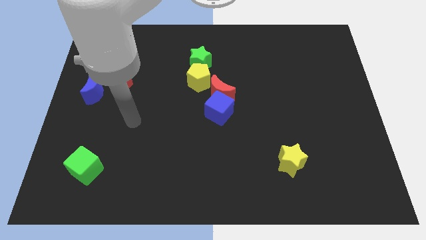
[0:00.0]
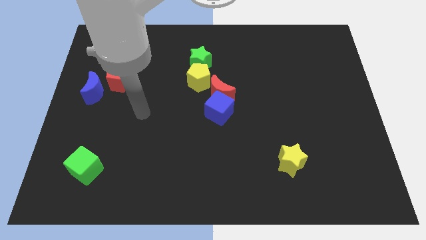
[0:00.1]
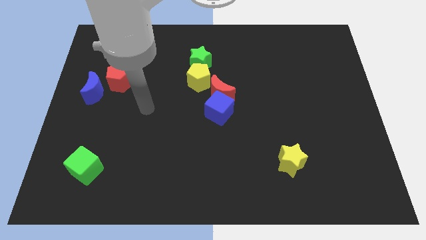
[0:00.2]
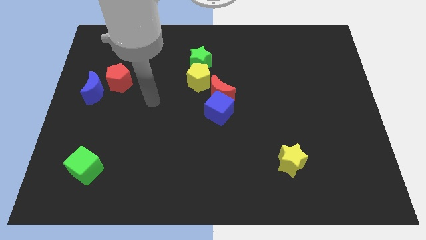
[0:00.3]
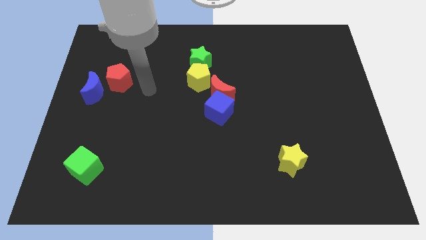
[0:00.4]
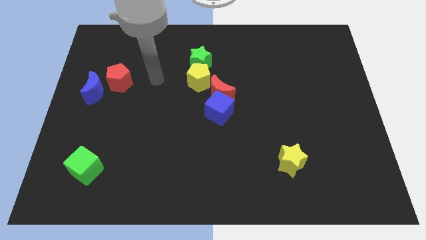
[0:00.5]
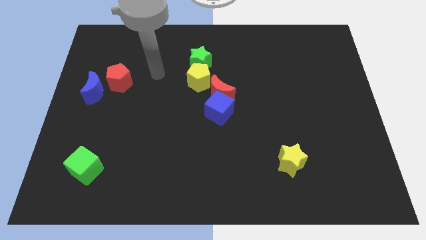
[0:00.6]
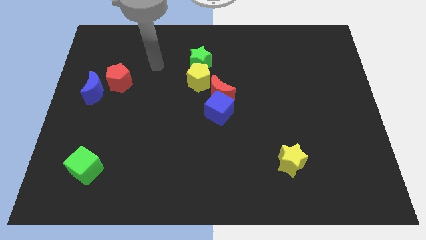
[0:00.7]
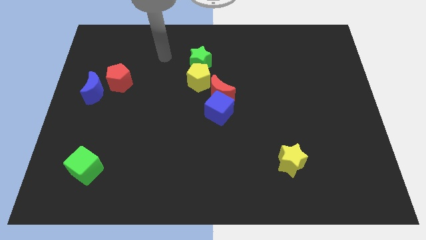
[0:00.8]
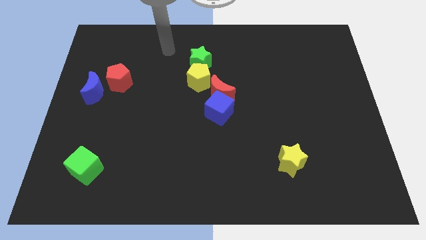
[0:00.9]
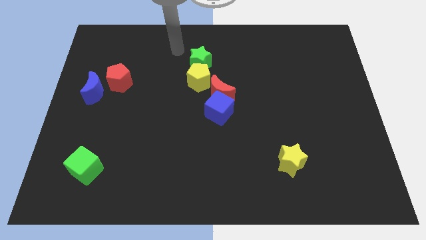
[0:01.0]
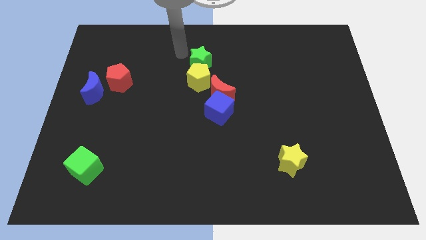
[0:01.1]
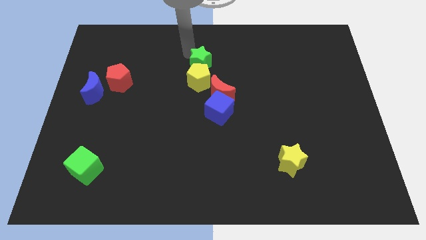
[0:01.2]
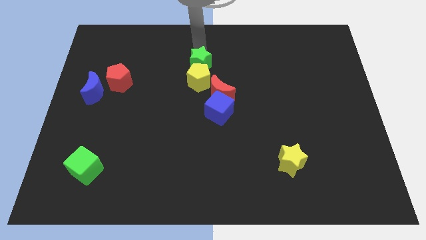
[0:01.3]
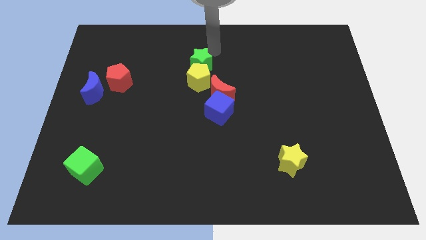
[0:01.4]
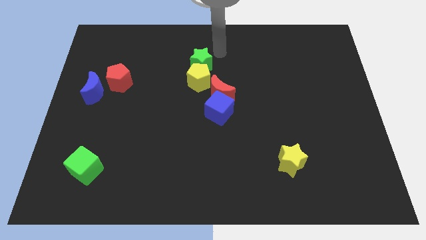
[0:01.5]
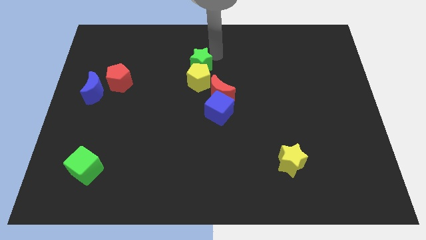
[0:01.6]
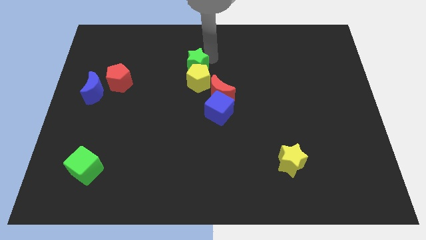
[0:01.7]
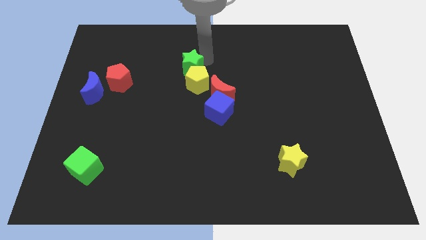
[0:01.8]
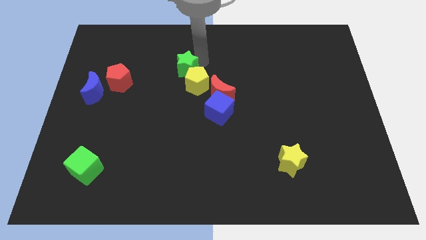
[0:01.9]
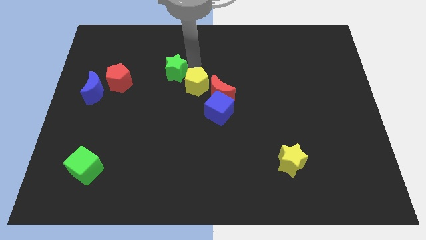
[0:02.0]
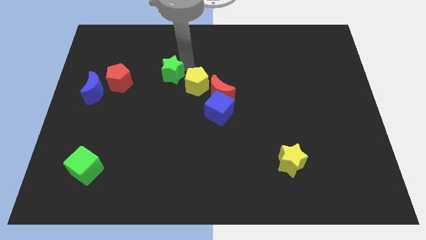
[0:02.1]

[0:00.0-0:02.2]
slide the green star a little diagonally downwards and left

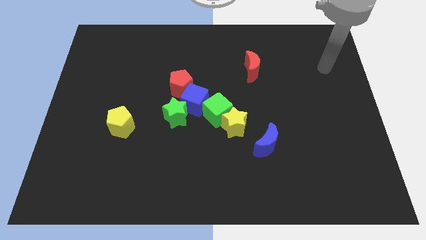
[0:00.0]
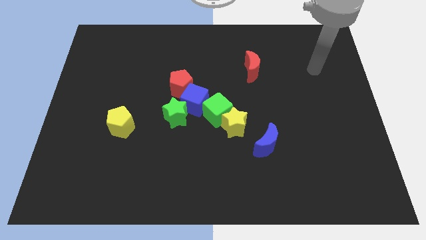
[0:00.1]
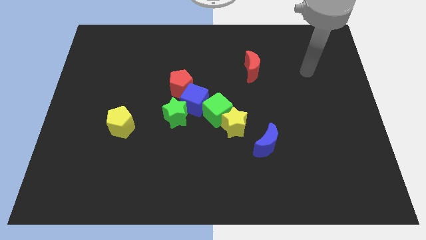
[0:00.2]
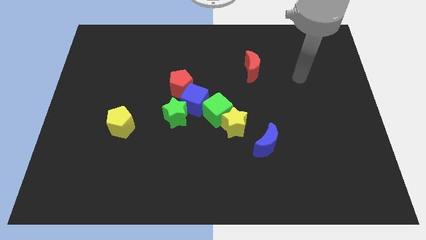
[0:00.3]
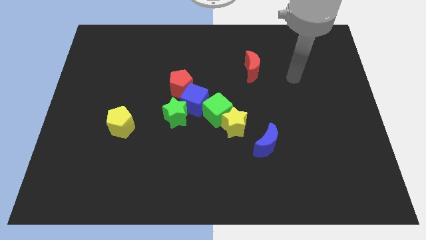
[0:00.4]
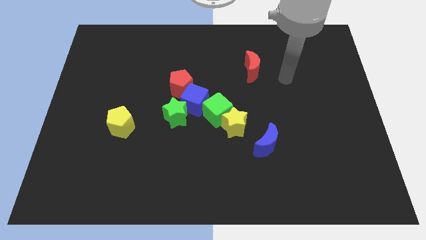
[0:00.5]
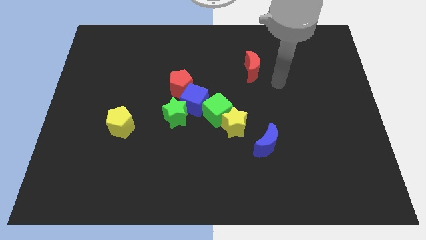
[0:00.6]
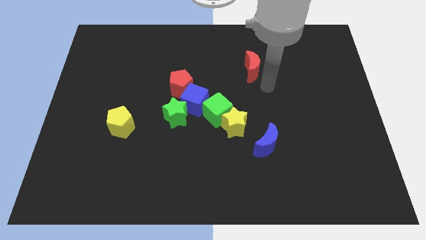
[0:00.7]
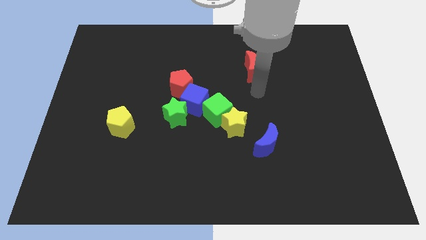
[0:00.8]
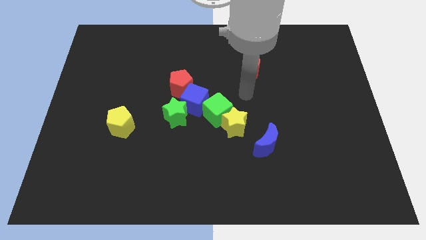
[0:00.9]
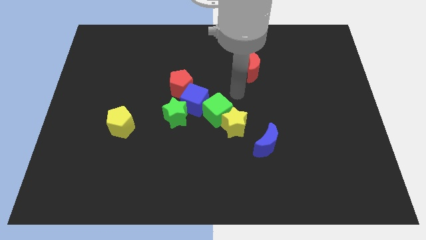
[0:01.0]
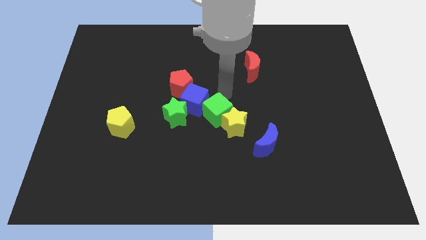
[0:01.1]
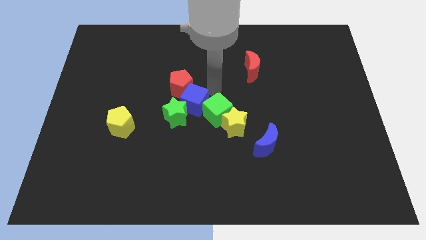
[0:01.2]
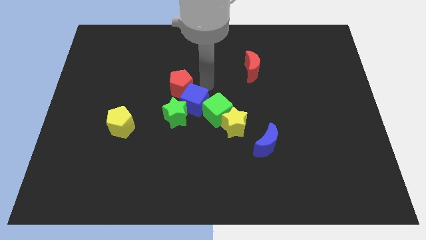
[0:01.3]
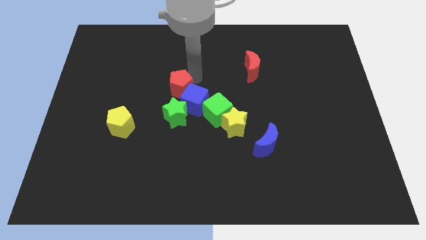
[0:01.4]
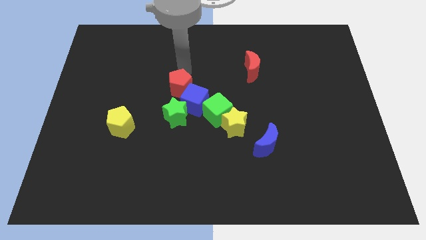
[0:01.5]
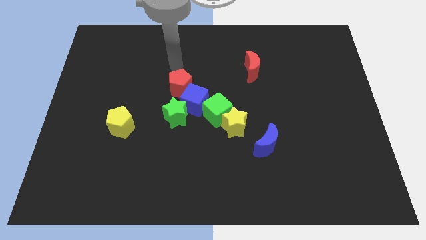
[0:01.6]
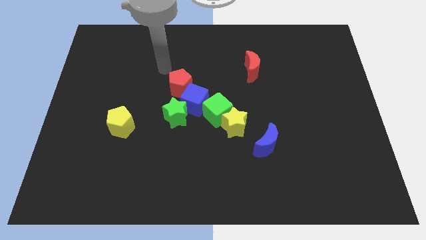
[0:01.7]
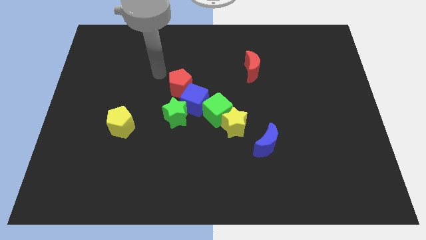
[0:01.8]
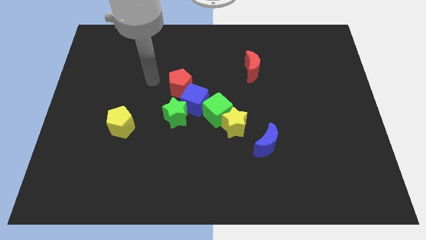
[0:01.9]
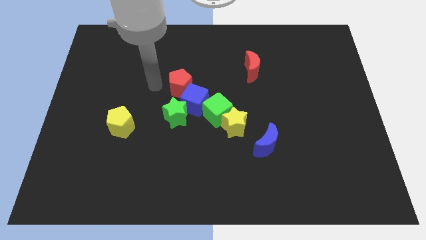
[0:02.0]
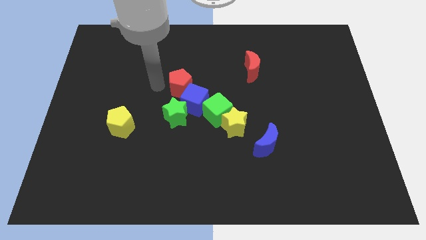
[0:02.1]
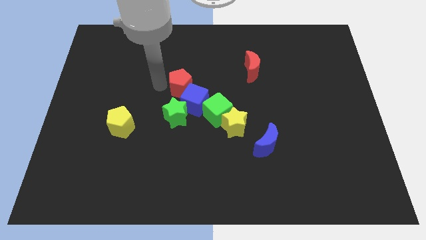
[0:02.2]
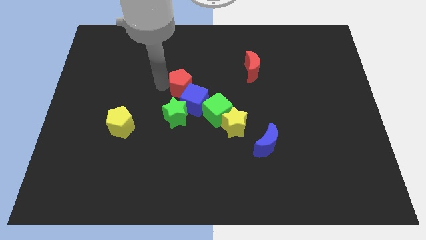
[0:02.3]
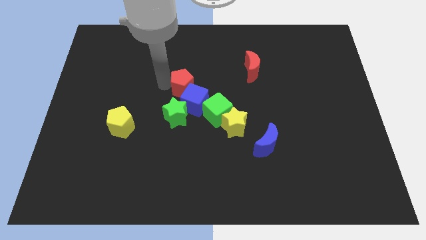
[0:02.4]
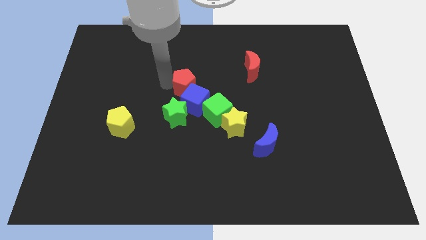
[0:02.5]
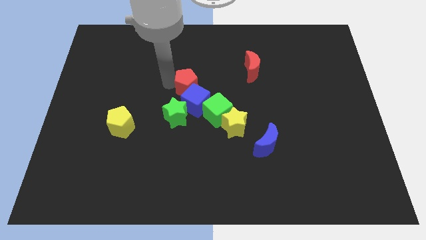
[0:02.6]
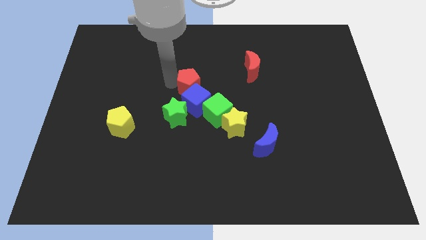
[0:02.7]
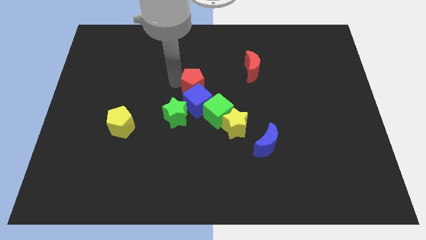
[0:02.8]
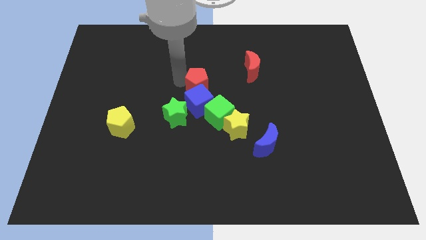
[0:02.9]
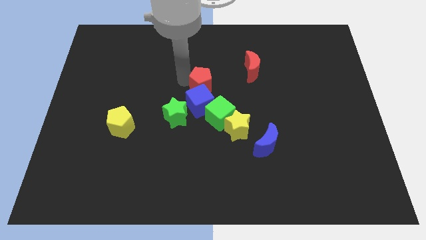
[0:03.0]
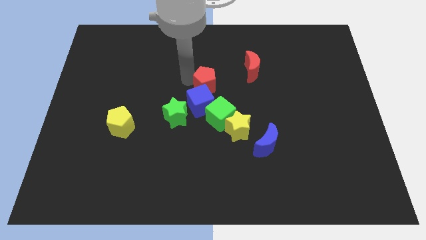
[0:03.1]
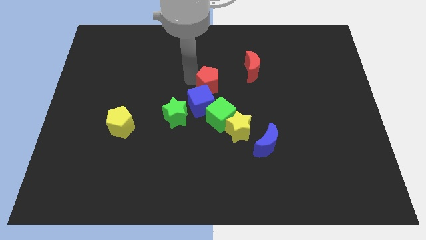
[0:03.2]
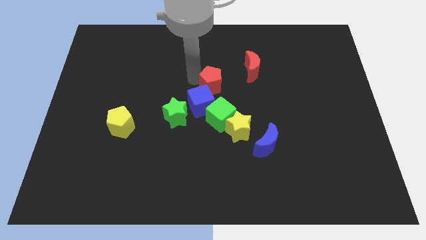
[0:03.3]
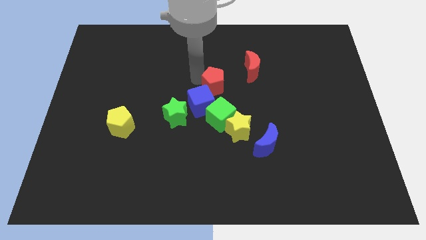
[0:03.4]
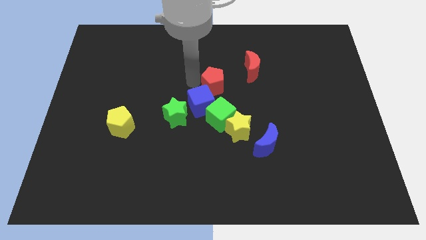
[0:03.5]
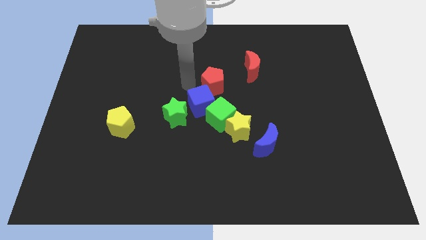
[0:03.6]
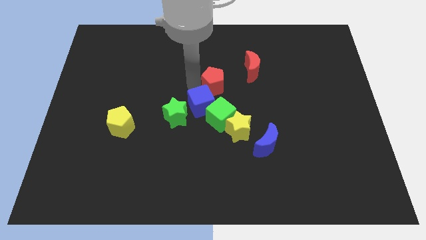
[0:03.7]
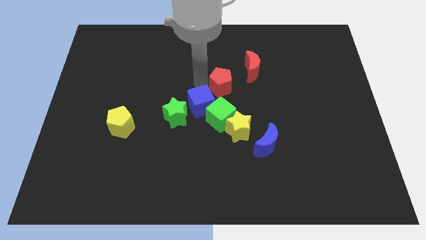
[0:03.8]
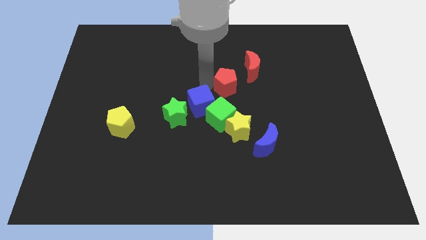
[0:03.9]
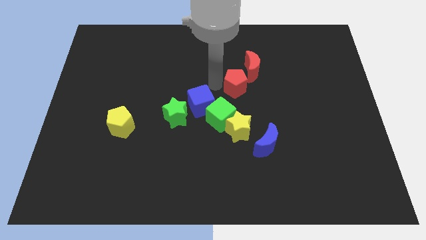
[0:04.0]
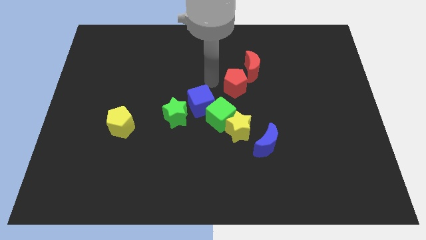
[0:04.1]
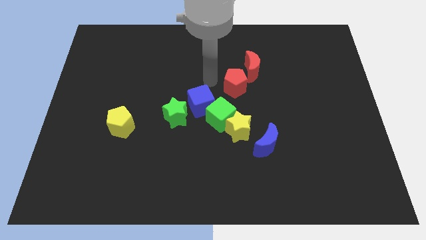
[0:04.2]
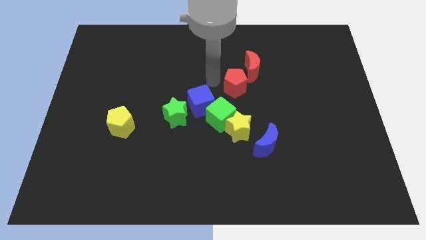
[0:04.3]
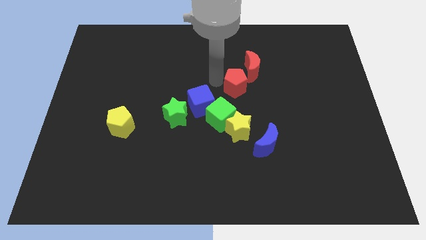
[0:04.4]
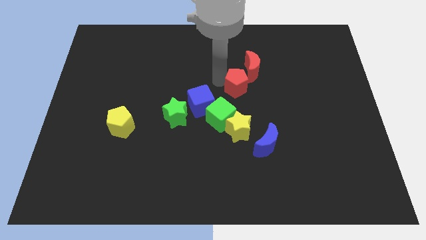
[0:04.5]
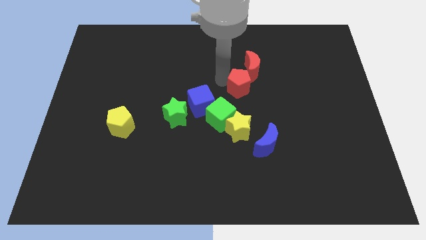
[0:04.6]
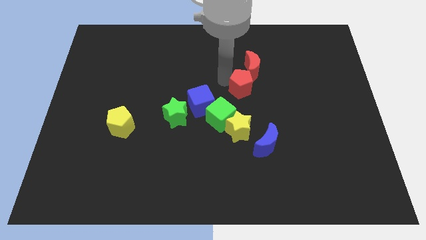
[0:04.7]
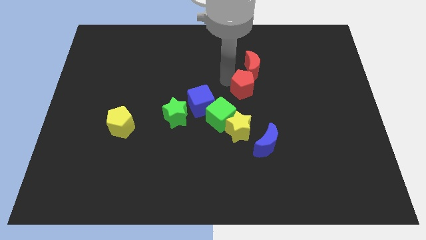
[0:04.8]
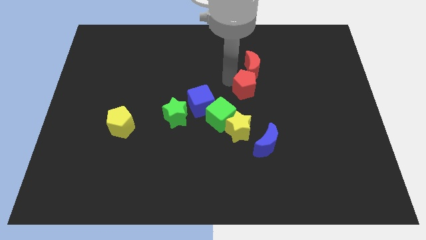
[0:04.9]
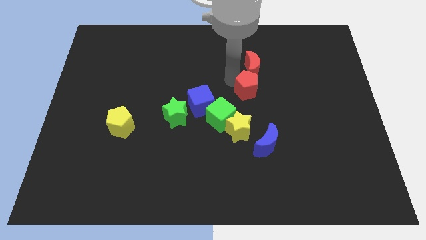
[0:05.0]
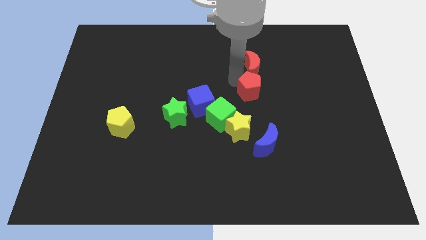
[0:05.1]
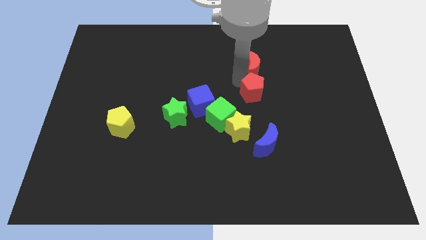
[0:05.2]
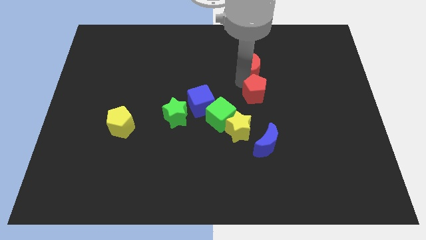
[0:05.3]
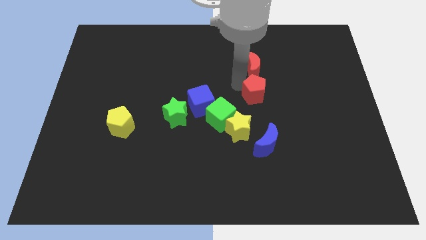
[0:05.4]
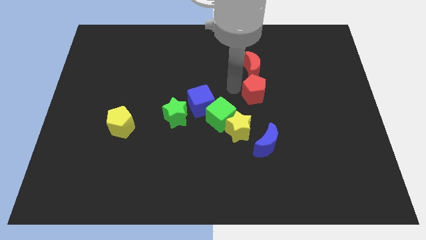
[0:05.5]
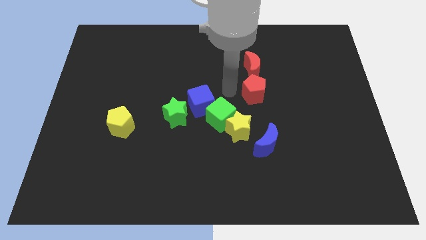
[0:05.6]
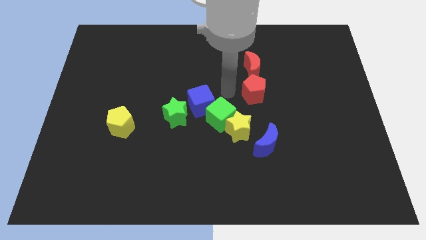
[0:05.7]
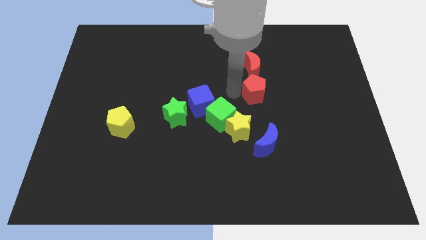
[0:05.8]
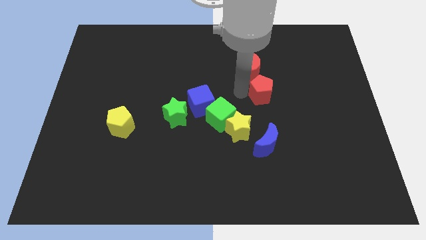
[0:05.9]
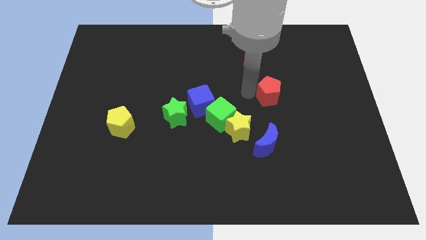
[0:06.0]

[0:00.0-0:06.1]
move the red pentagon right
